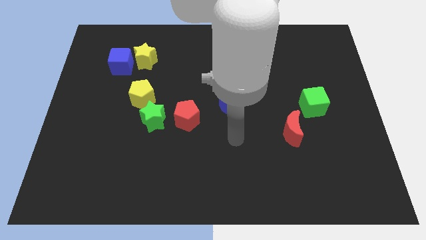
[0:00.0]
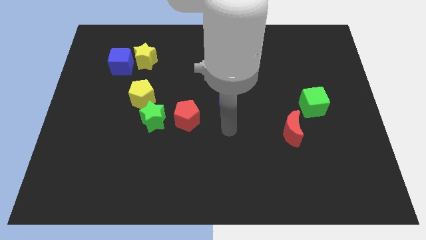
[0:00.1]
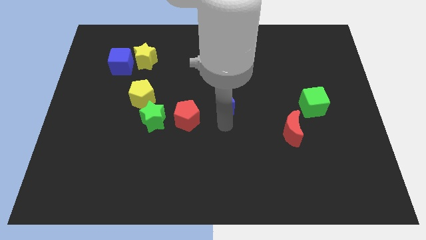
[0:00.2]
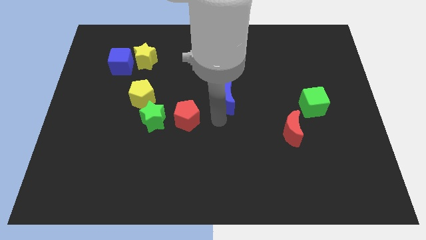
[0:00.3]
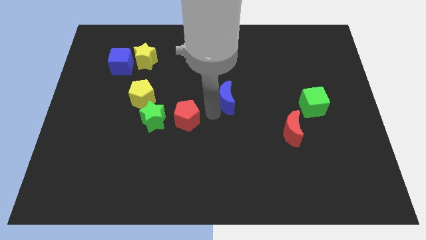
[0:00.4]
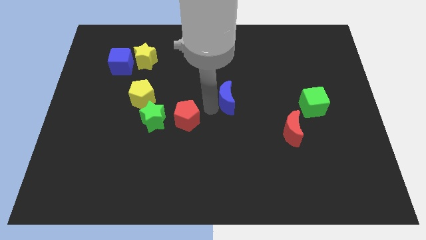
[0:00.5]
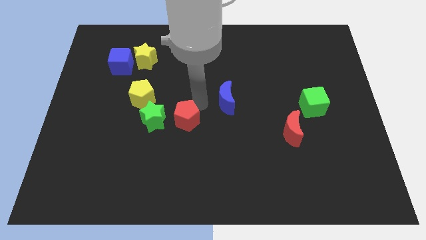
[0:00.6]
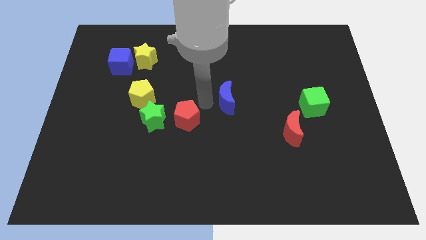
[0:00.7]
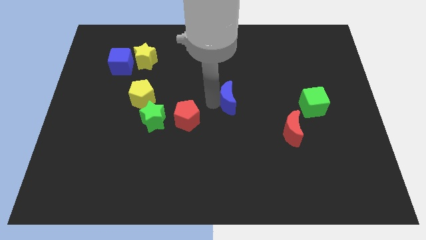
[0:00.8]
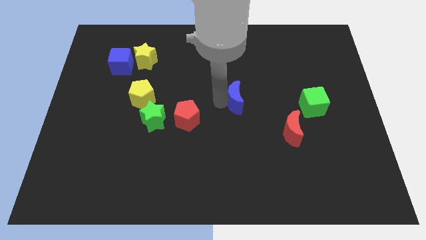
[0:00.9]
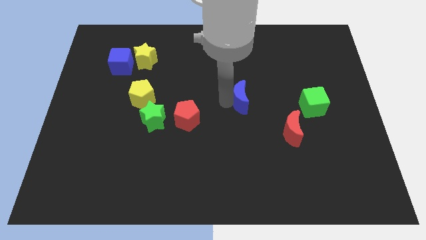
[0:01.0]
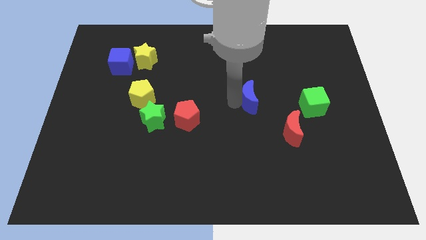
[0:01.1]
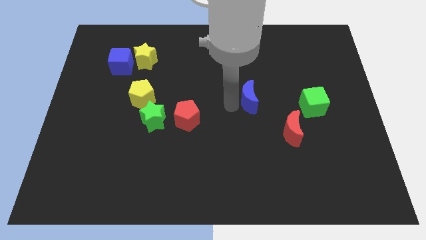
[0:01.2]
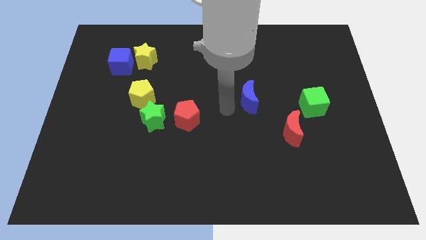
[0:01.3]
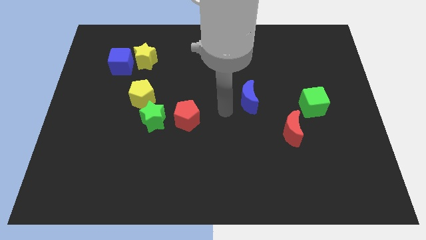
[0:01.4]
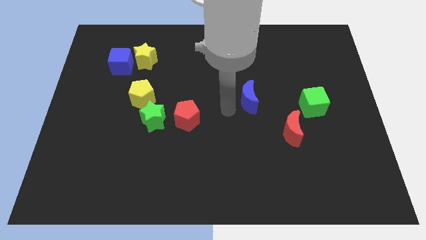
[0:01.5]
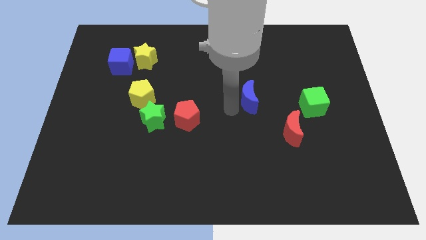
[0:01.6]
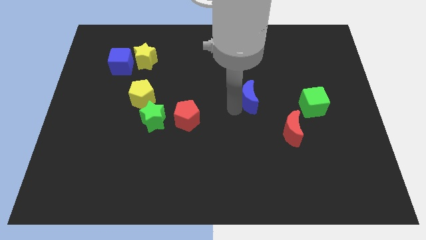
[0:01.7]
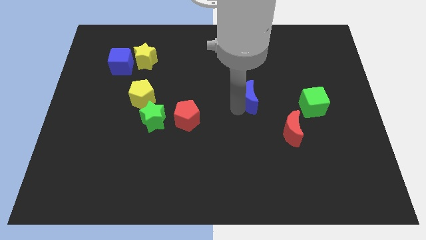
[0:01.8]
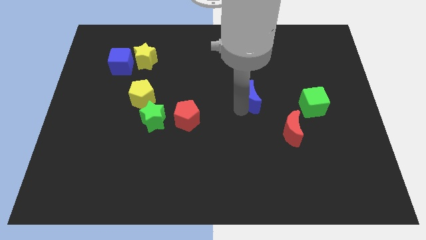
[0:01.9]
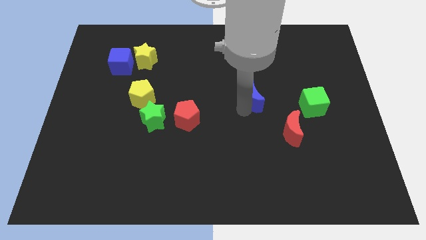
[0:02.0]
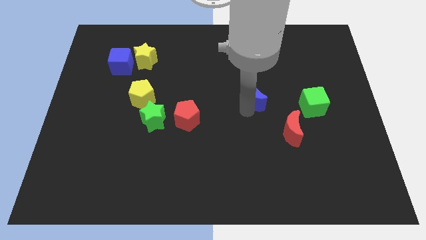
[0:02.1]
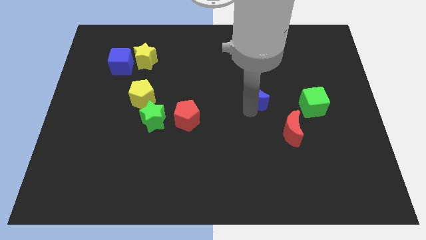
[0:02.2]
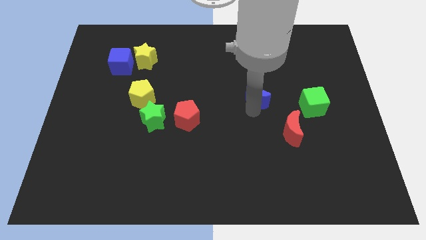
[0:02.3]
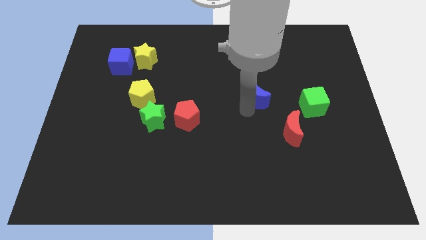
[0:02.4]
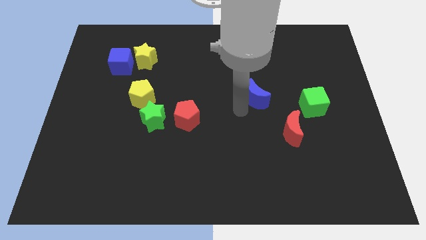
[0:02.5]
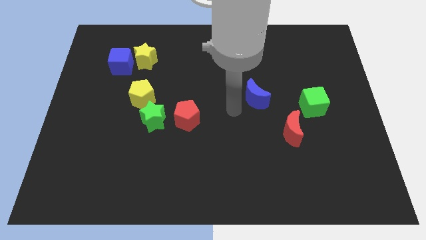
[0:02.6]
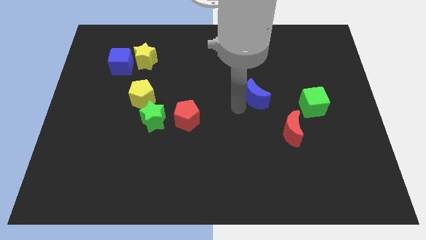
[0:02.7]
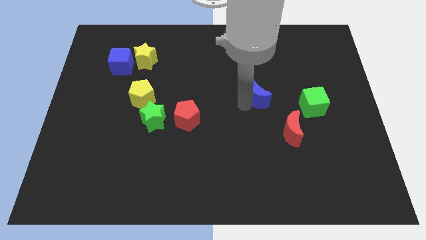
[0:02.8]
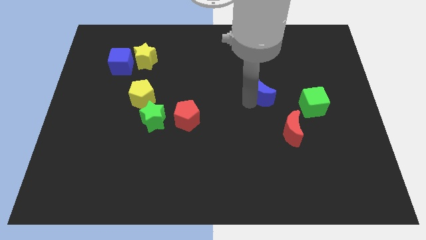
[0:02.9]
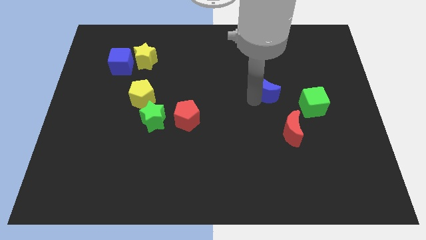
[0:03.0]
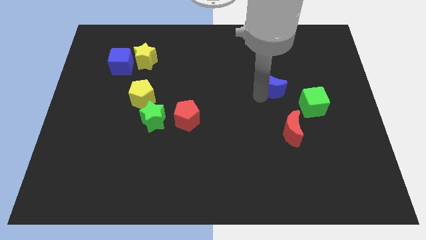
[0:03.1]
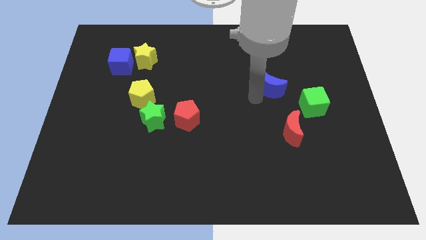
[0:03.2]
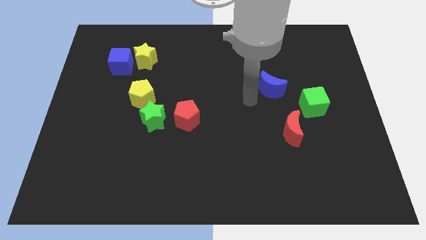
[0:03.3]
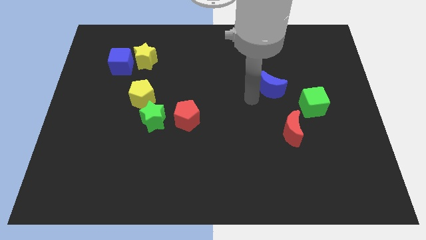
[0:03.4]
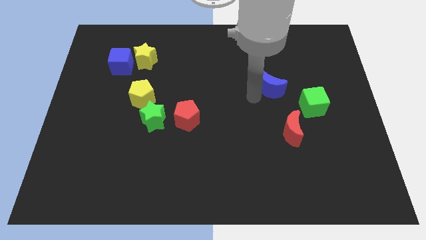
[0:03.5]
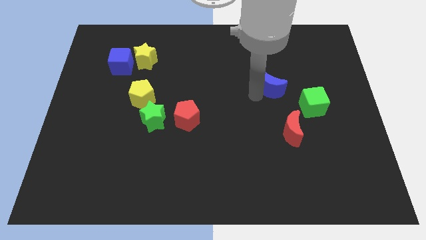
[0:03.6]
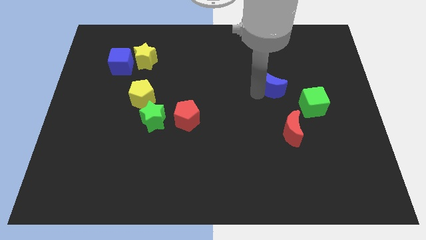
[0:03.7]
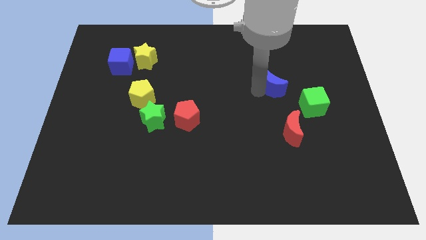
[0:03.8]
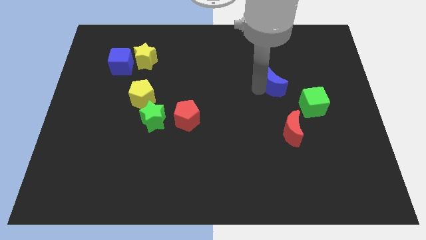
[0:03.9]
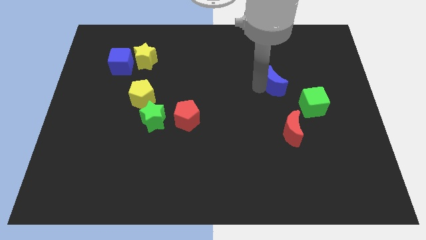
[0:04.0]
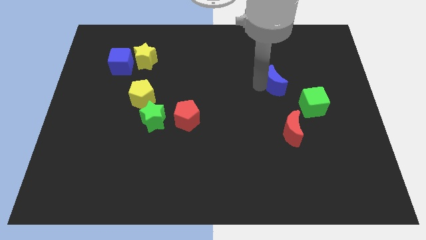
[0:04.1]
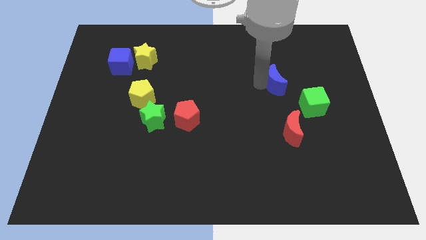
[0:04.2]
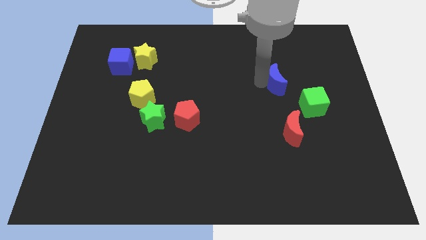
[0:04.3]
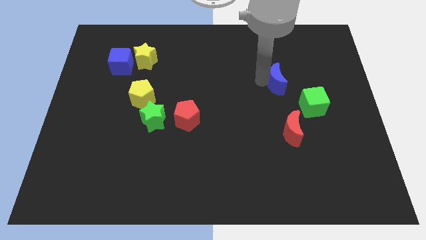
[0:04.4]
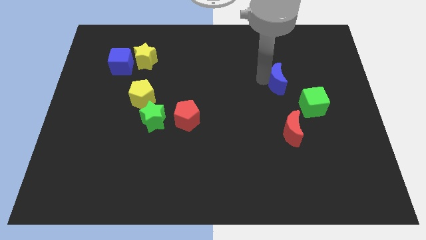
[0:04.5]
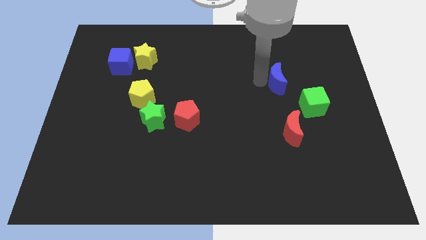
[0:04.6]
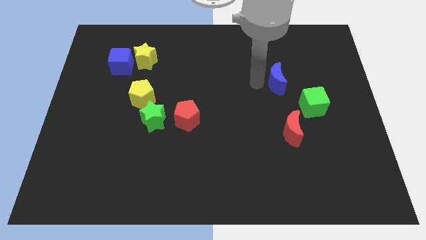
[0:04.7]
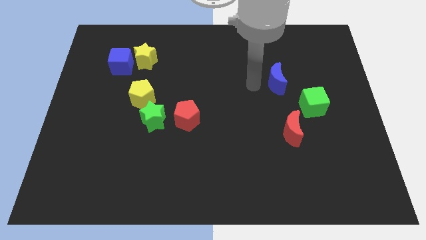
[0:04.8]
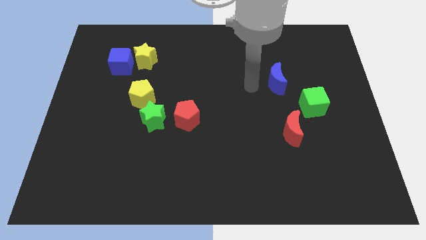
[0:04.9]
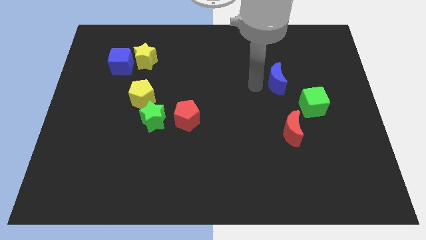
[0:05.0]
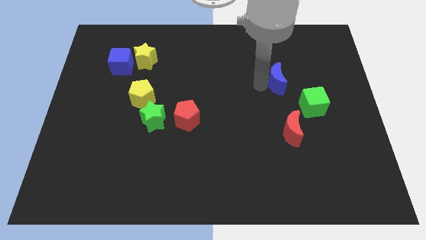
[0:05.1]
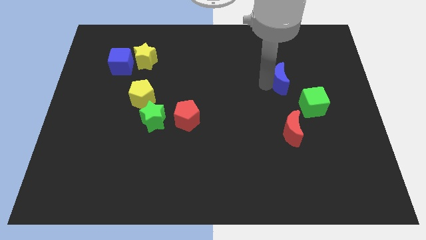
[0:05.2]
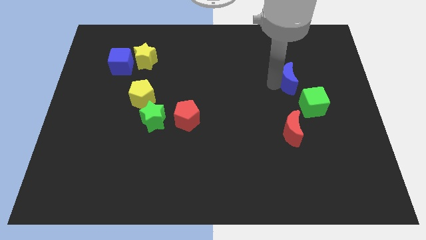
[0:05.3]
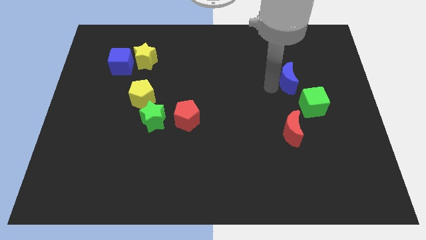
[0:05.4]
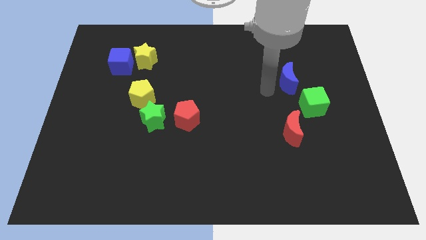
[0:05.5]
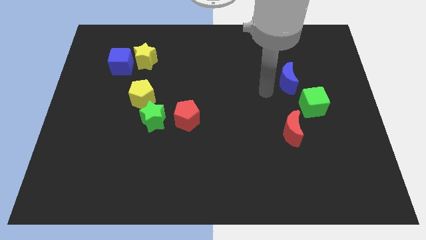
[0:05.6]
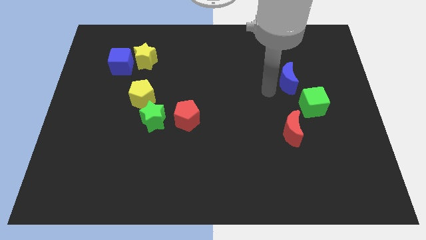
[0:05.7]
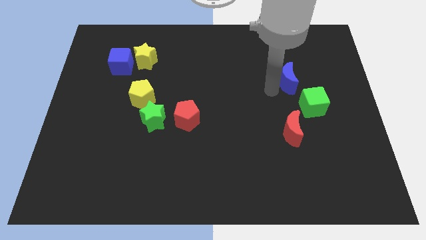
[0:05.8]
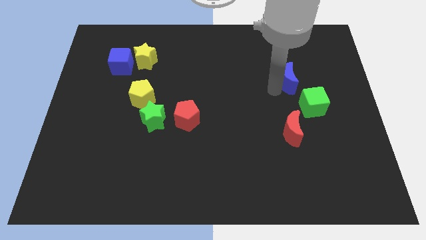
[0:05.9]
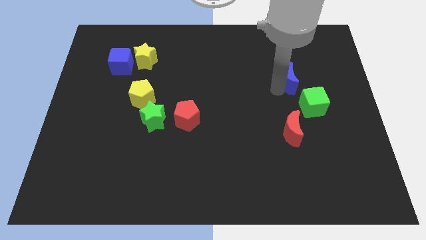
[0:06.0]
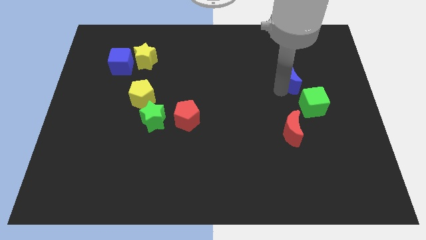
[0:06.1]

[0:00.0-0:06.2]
slide the blue moon to the top side of the green cube

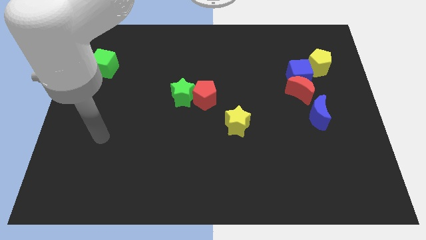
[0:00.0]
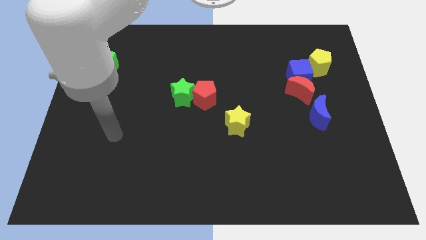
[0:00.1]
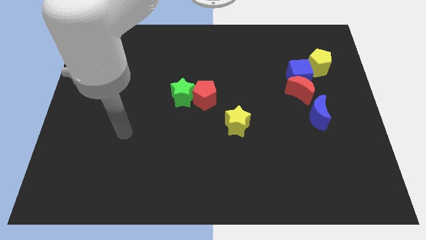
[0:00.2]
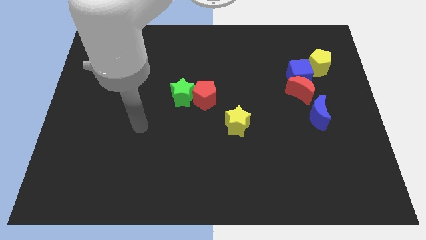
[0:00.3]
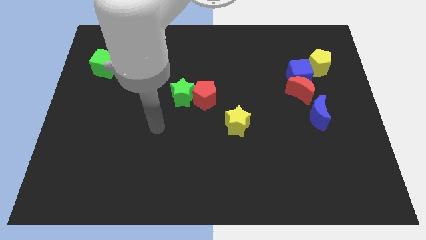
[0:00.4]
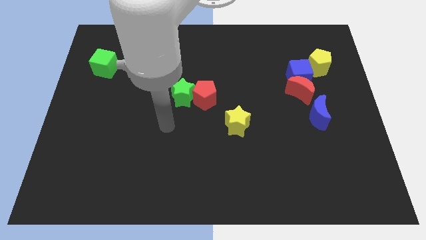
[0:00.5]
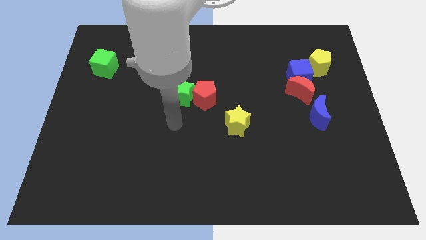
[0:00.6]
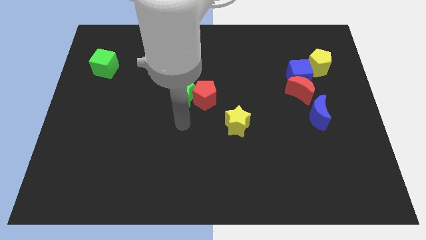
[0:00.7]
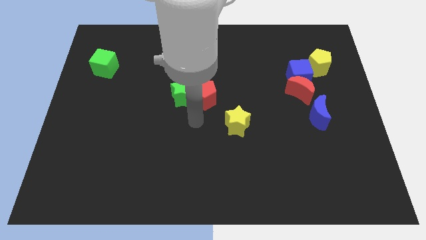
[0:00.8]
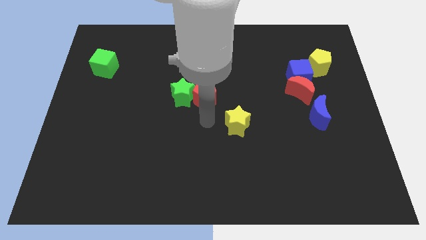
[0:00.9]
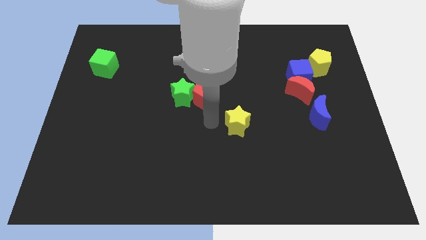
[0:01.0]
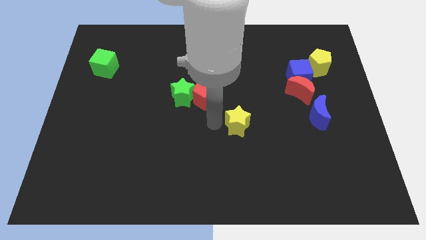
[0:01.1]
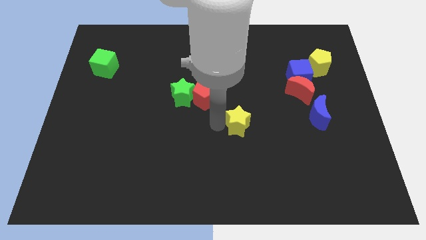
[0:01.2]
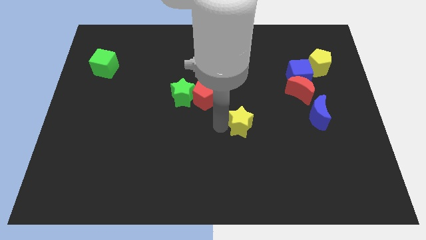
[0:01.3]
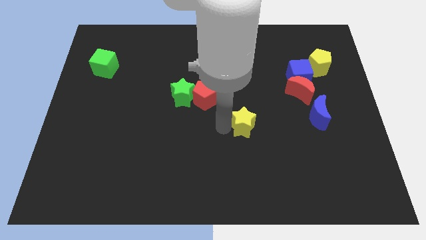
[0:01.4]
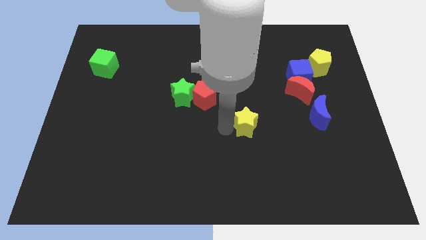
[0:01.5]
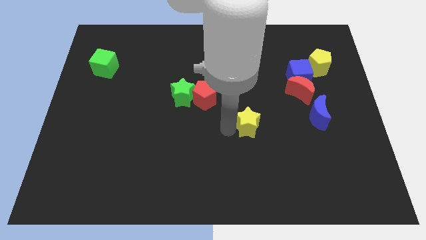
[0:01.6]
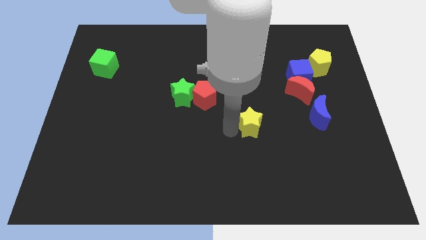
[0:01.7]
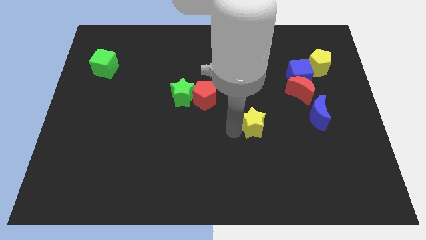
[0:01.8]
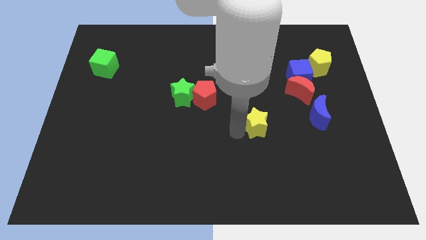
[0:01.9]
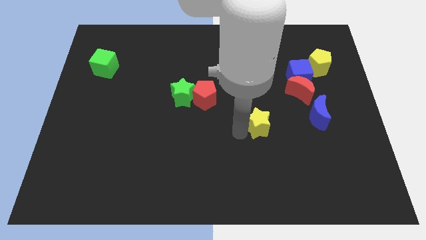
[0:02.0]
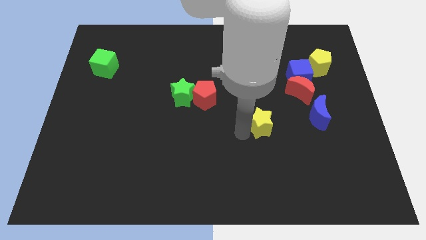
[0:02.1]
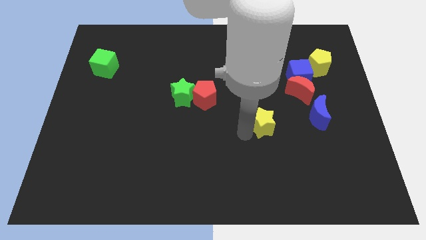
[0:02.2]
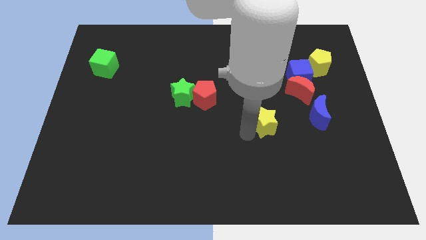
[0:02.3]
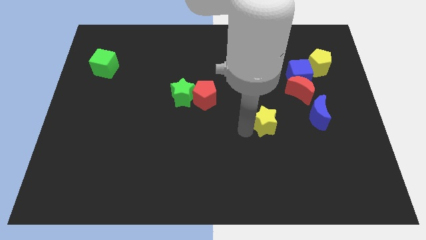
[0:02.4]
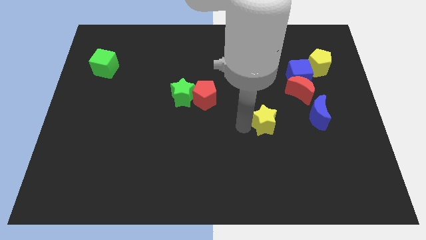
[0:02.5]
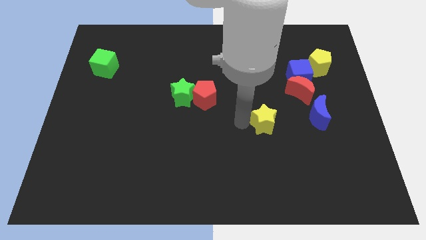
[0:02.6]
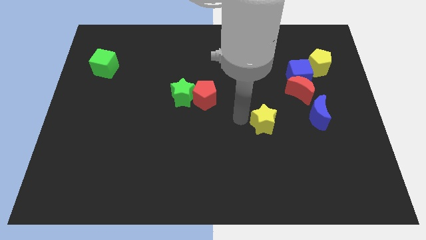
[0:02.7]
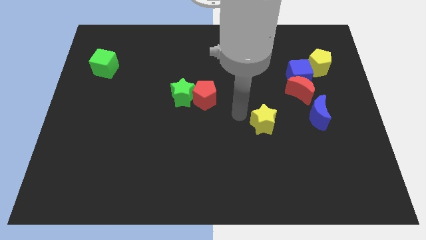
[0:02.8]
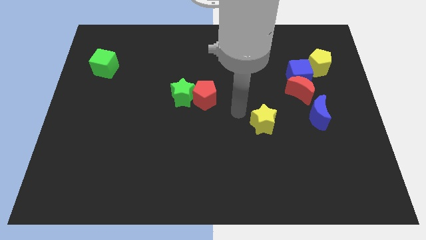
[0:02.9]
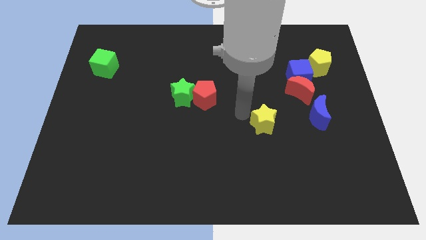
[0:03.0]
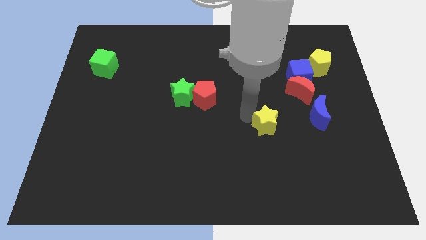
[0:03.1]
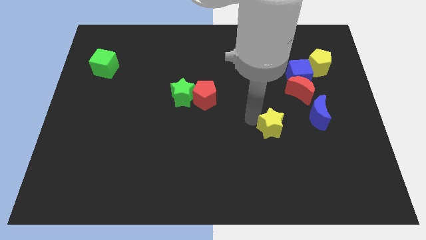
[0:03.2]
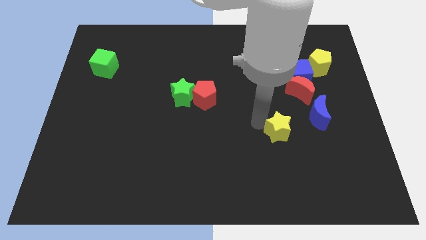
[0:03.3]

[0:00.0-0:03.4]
push the yellow star diagonally down and to the left of the blue moon
